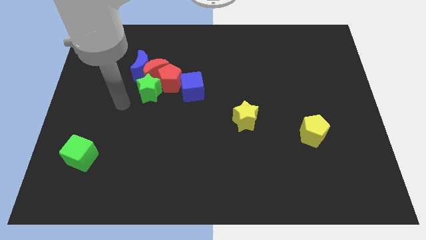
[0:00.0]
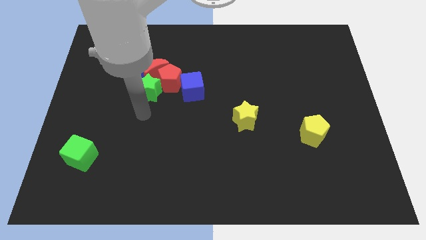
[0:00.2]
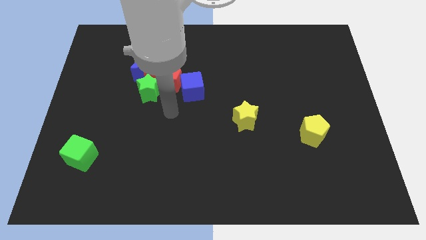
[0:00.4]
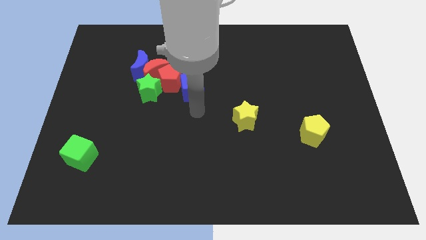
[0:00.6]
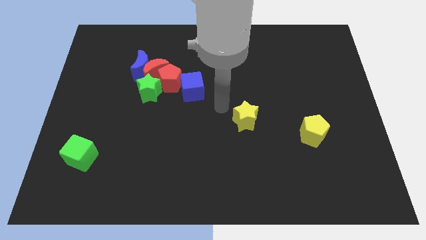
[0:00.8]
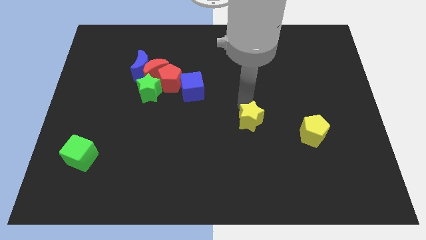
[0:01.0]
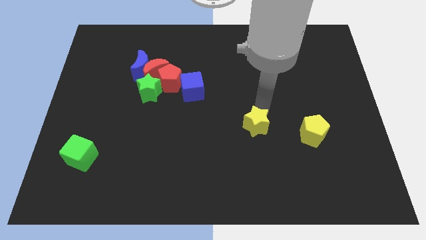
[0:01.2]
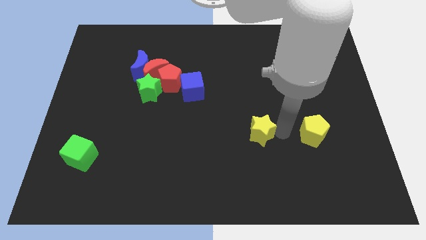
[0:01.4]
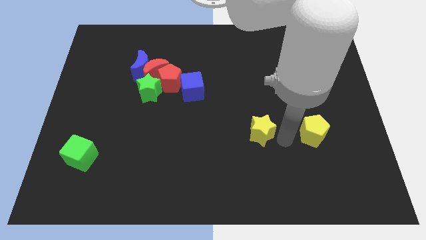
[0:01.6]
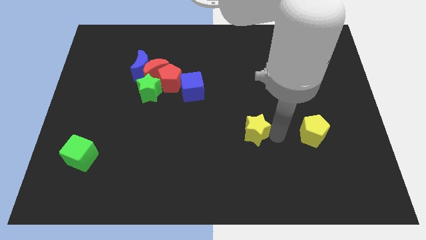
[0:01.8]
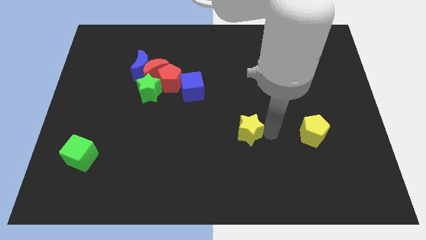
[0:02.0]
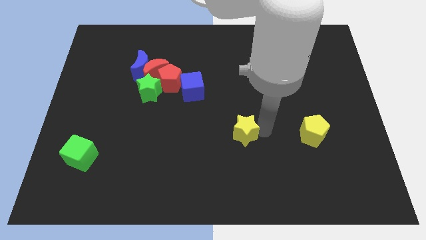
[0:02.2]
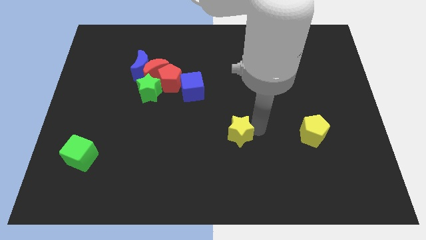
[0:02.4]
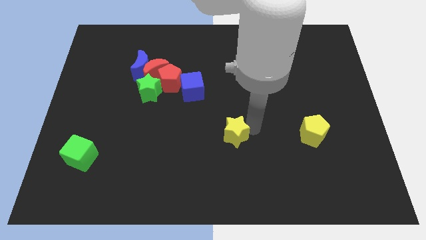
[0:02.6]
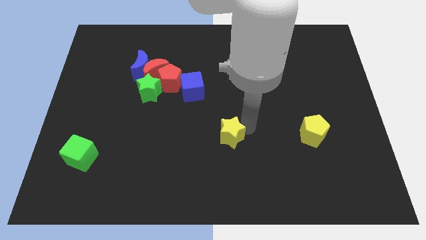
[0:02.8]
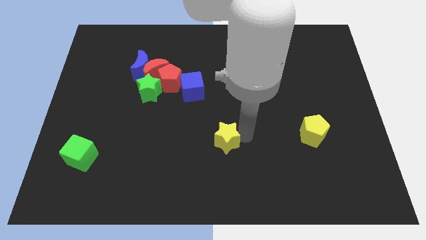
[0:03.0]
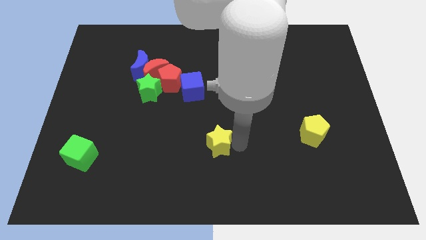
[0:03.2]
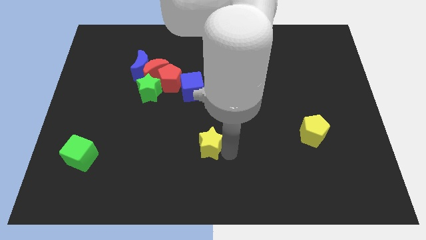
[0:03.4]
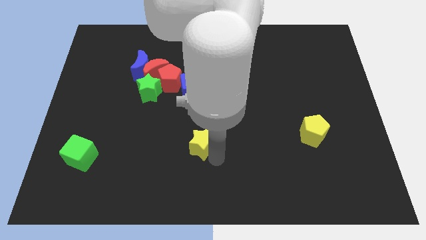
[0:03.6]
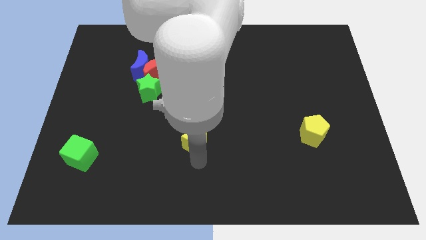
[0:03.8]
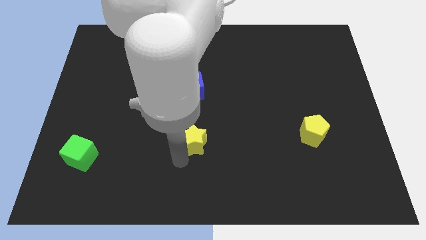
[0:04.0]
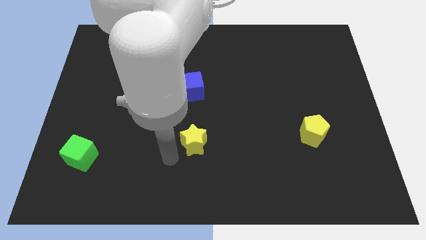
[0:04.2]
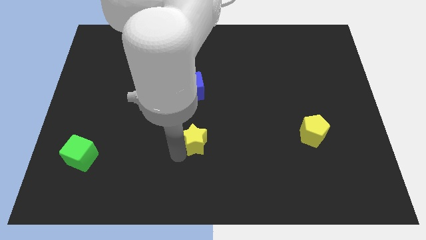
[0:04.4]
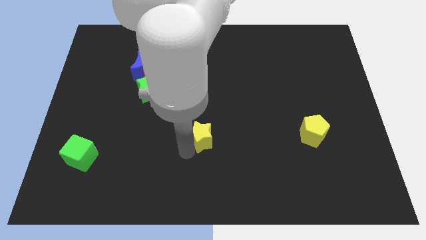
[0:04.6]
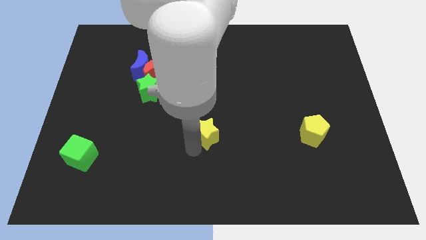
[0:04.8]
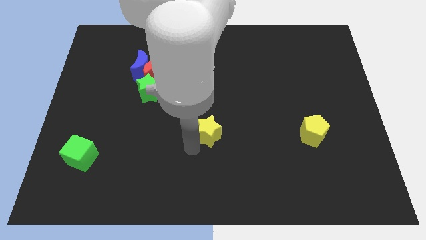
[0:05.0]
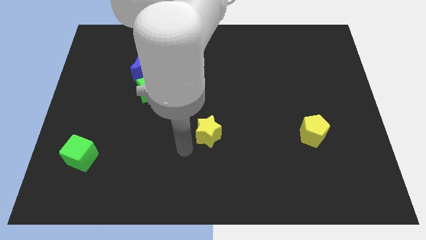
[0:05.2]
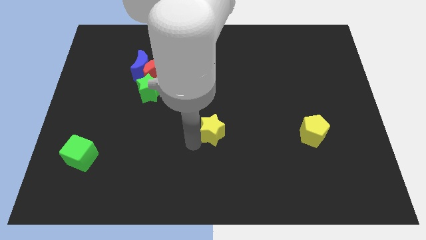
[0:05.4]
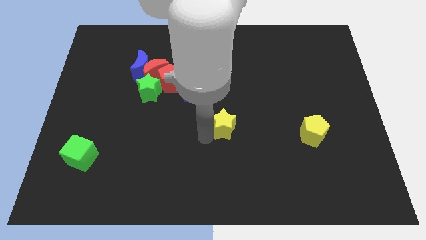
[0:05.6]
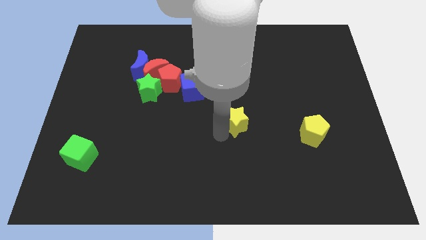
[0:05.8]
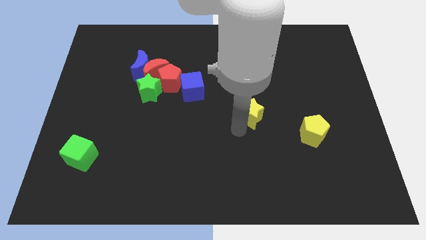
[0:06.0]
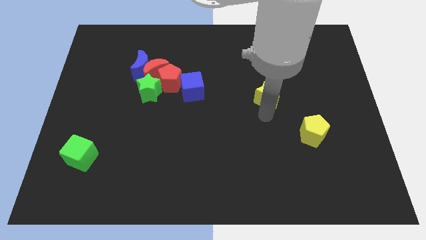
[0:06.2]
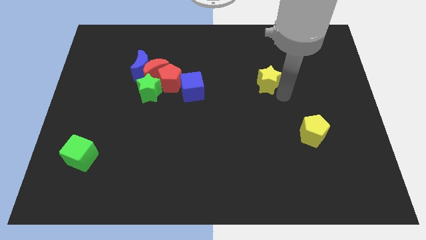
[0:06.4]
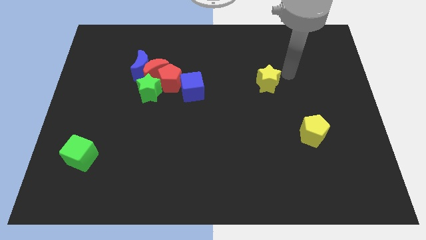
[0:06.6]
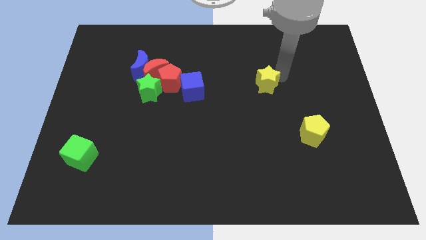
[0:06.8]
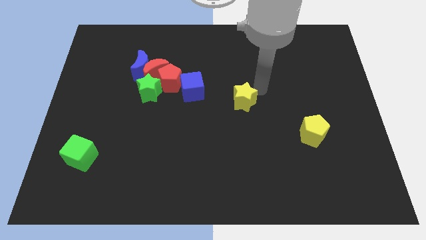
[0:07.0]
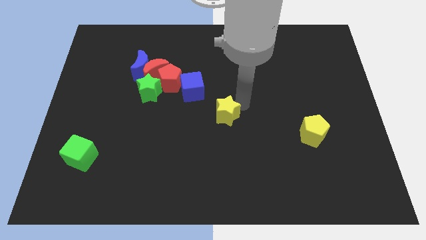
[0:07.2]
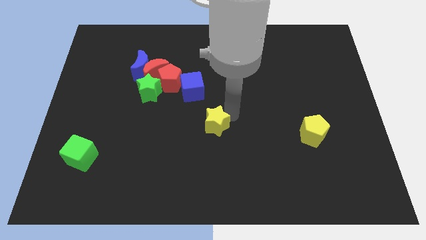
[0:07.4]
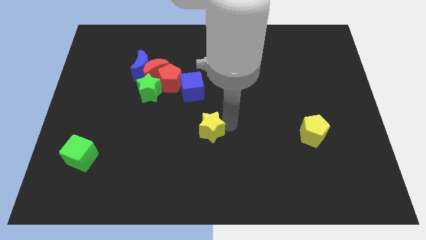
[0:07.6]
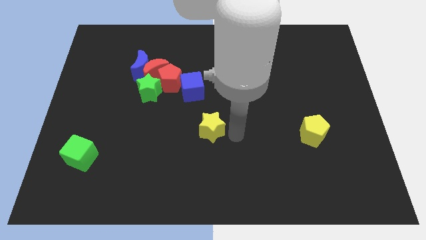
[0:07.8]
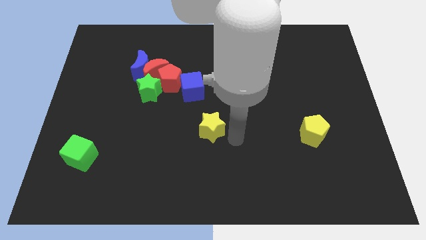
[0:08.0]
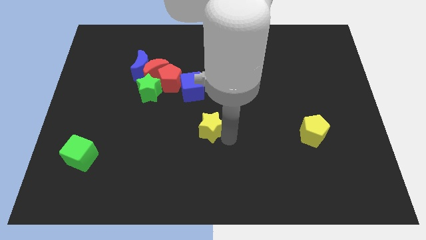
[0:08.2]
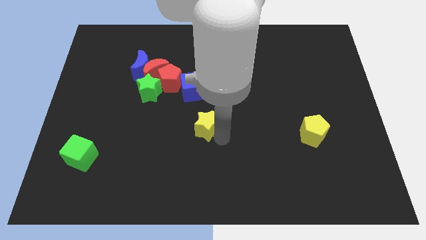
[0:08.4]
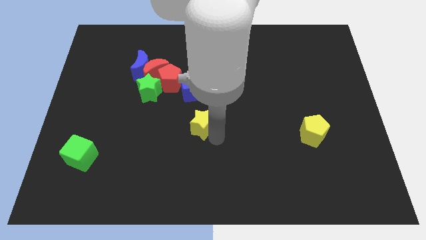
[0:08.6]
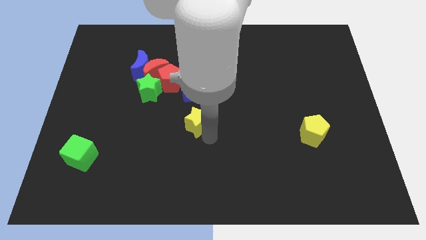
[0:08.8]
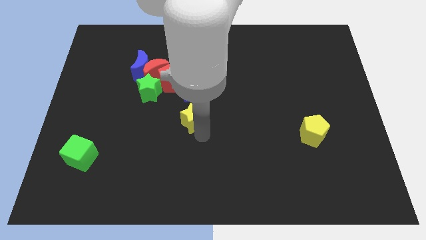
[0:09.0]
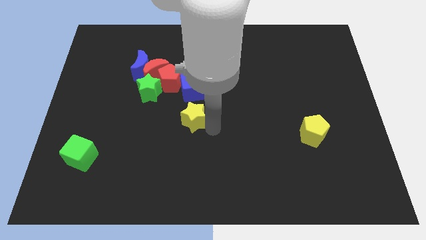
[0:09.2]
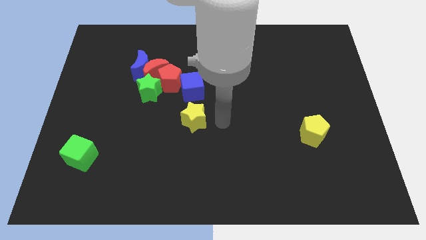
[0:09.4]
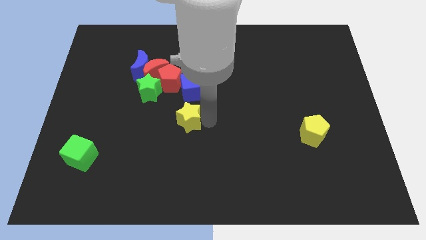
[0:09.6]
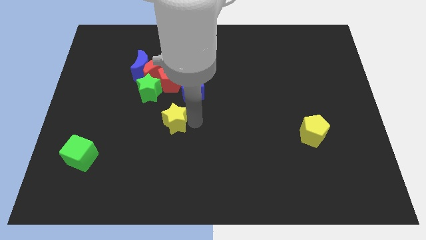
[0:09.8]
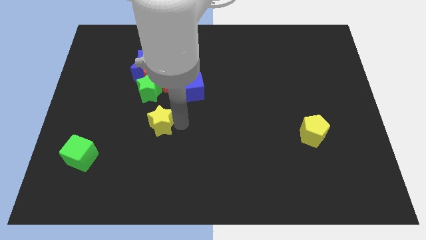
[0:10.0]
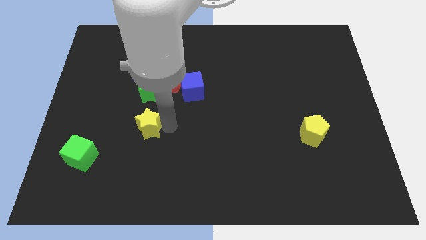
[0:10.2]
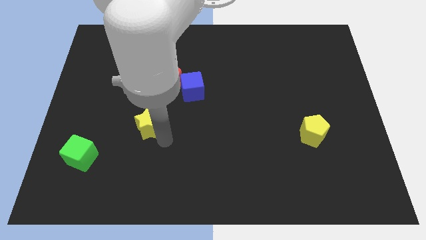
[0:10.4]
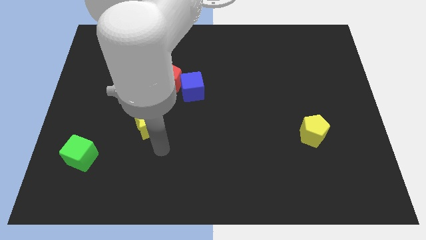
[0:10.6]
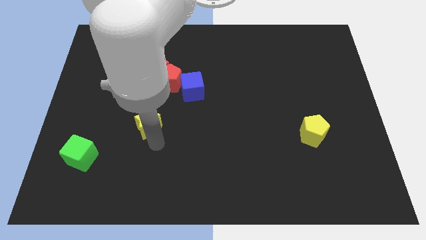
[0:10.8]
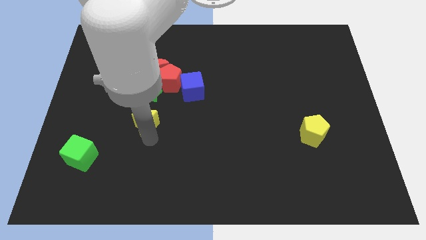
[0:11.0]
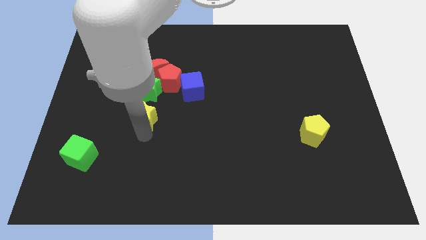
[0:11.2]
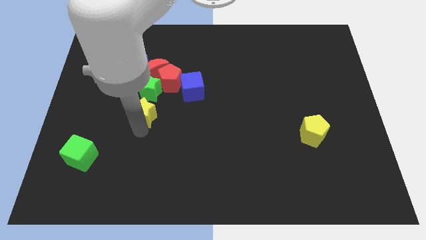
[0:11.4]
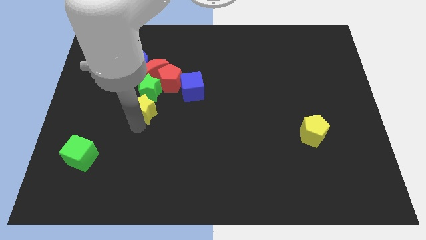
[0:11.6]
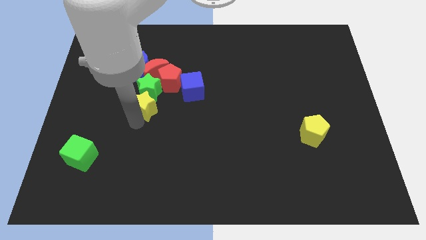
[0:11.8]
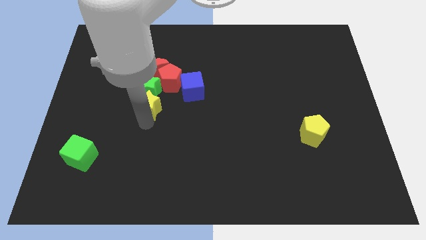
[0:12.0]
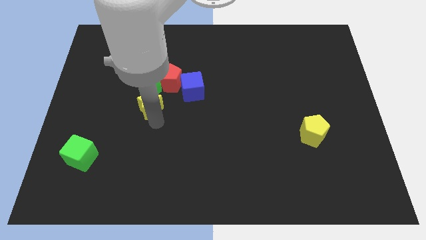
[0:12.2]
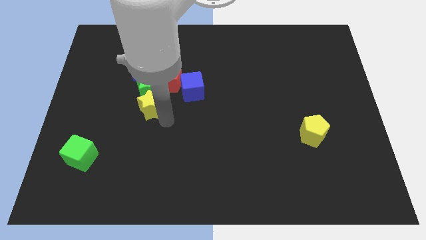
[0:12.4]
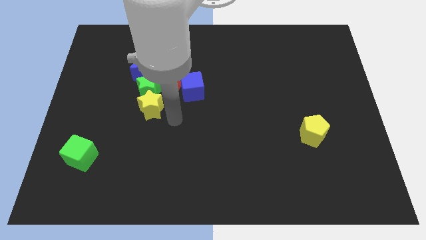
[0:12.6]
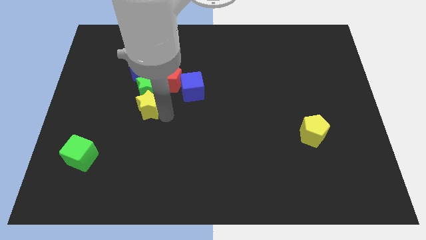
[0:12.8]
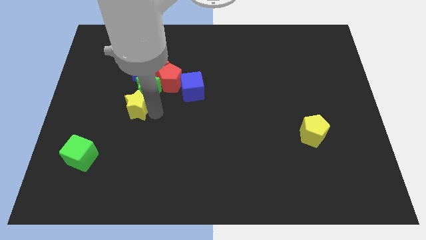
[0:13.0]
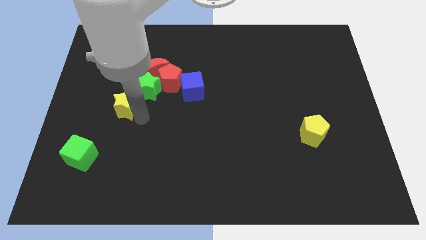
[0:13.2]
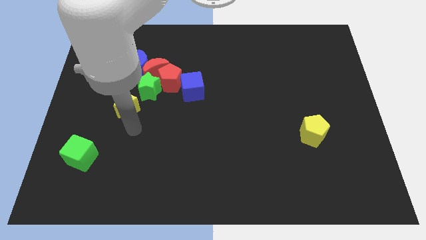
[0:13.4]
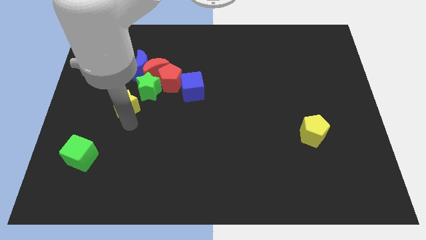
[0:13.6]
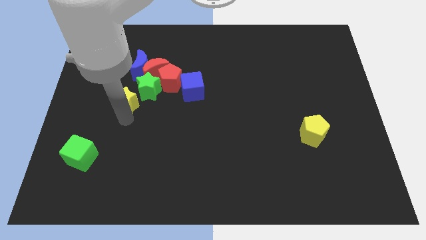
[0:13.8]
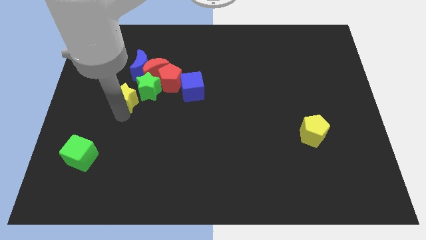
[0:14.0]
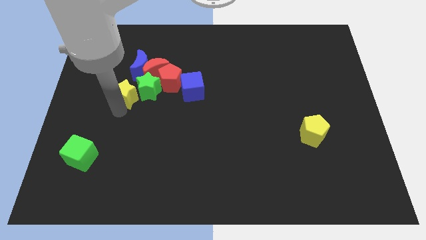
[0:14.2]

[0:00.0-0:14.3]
put the yellow star to the bottom left of the blue moon
